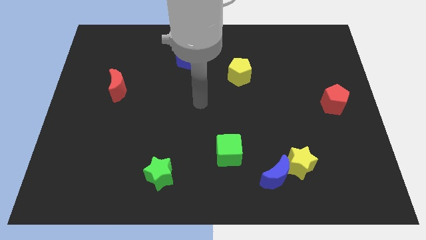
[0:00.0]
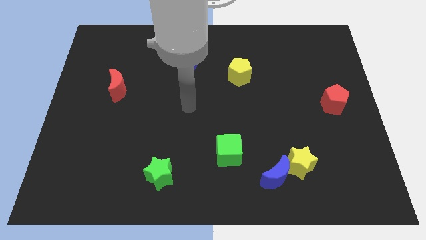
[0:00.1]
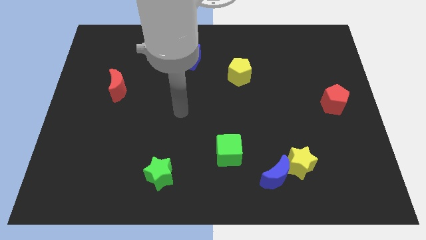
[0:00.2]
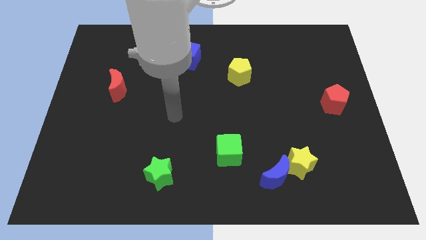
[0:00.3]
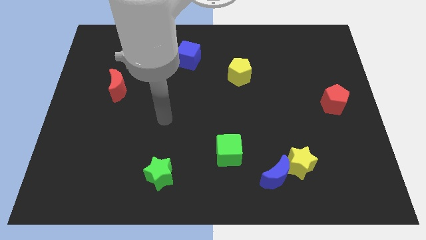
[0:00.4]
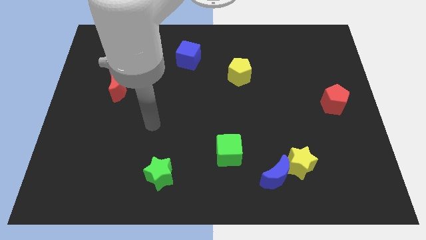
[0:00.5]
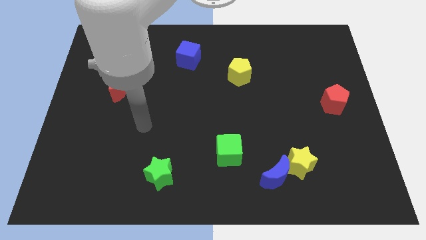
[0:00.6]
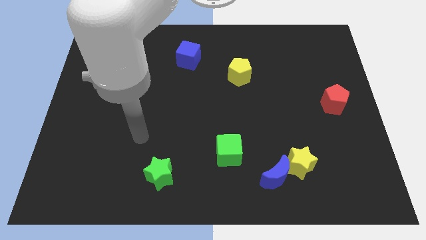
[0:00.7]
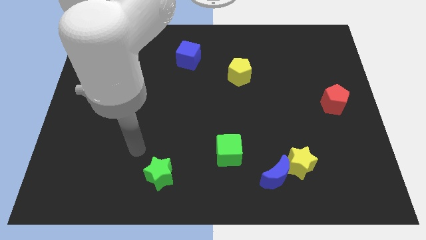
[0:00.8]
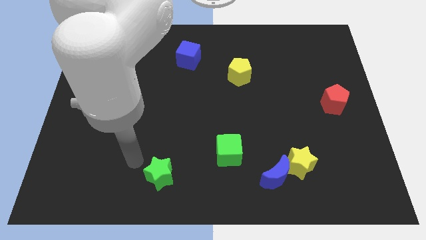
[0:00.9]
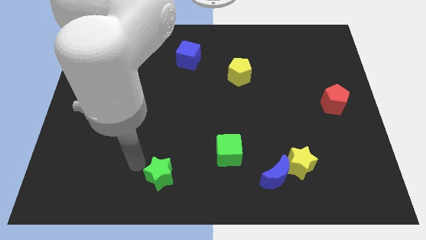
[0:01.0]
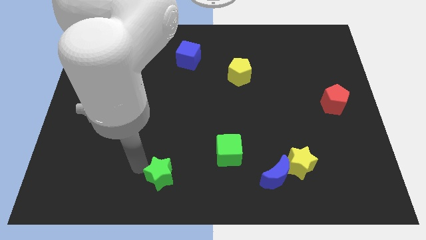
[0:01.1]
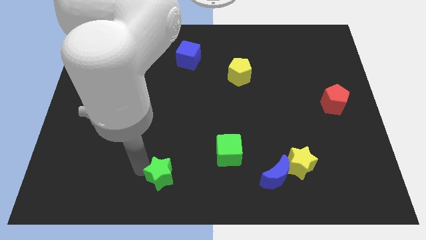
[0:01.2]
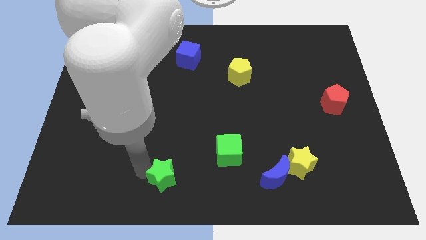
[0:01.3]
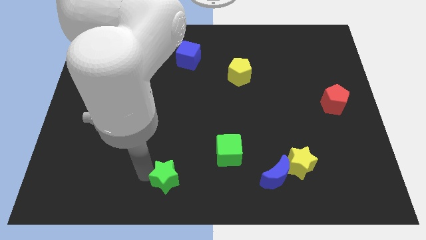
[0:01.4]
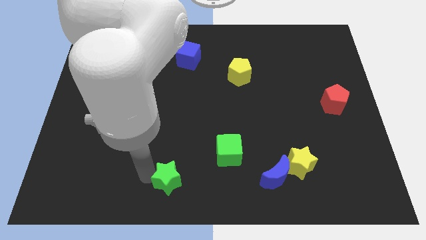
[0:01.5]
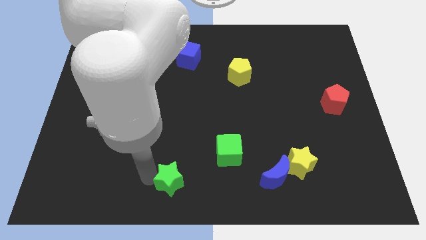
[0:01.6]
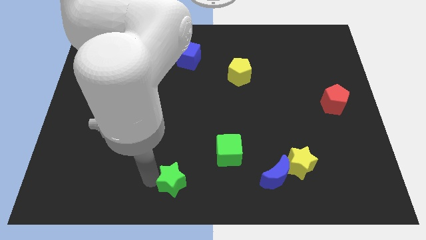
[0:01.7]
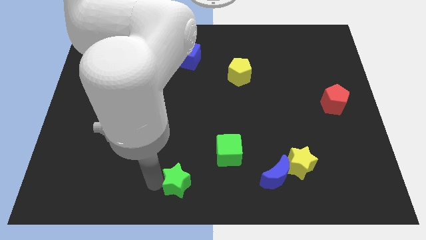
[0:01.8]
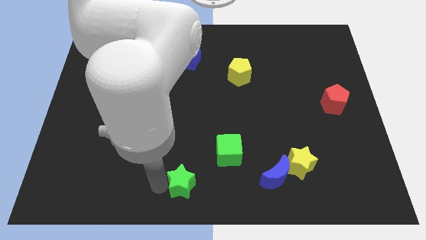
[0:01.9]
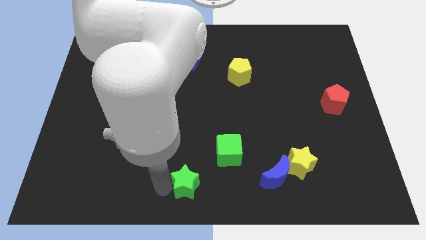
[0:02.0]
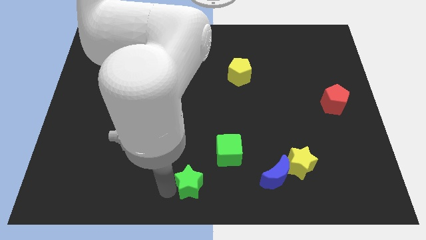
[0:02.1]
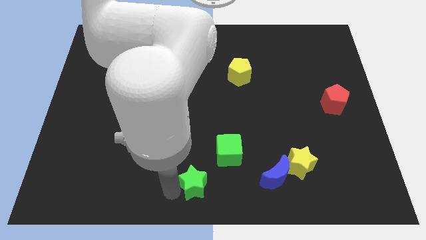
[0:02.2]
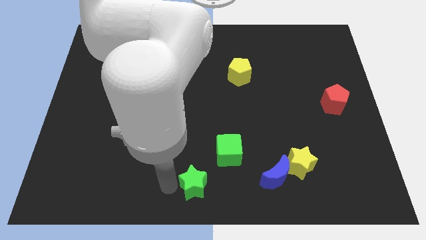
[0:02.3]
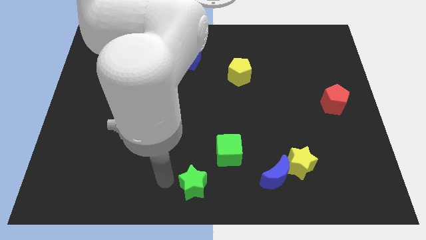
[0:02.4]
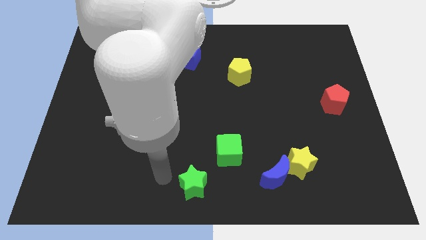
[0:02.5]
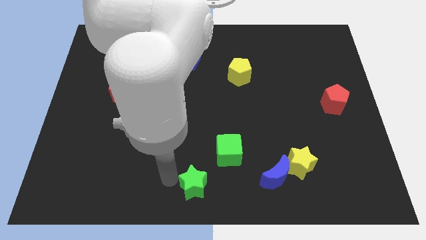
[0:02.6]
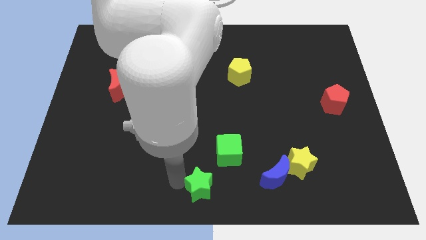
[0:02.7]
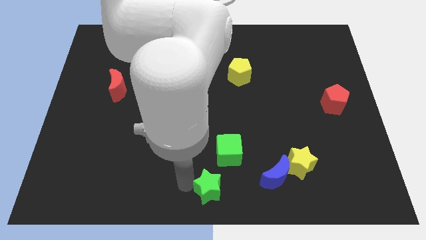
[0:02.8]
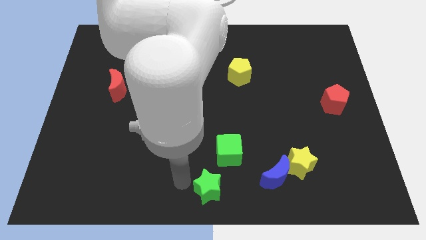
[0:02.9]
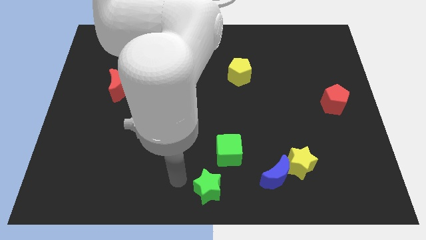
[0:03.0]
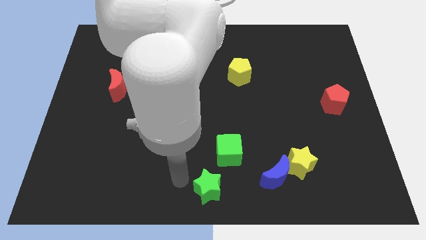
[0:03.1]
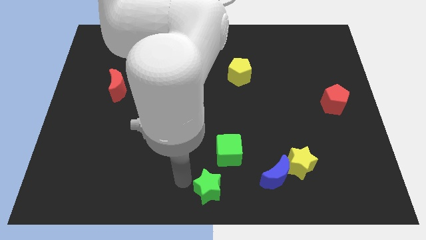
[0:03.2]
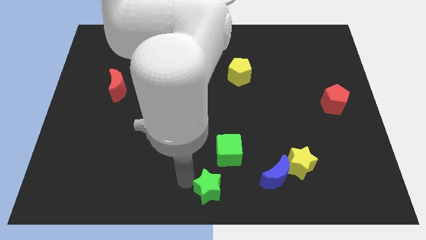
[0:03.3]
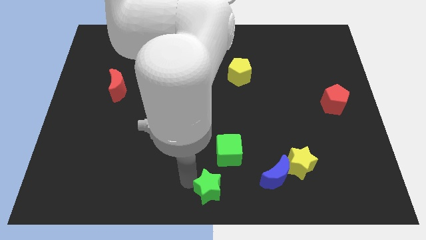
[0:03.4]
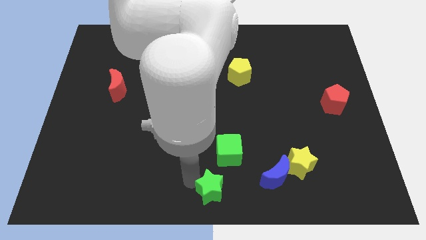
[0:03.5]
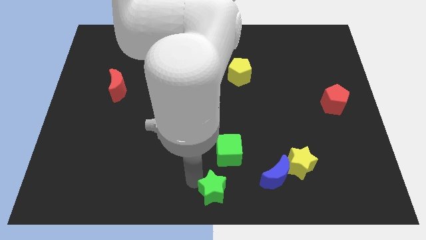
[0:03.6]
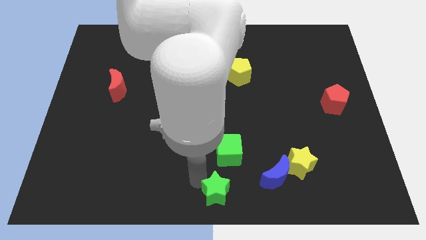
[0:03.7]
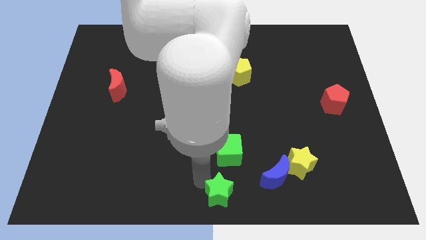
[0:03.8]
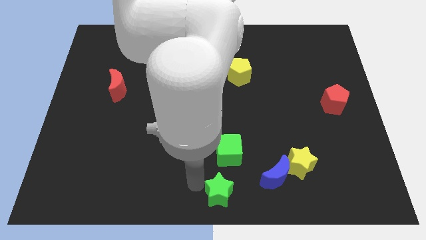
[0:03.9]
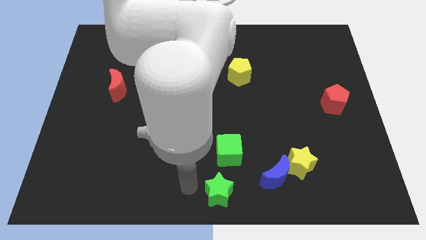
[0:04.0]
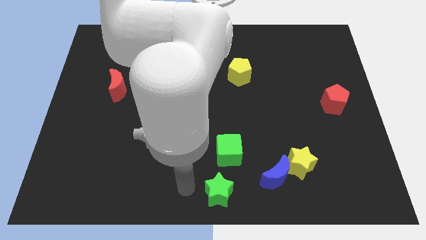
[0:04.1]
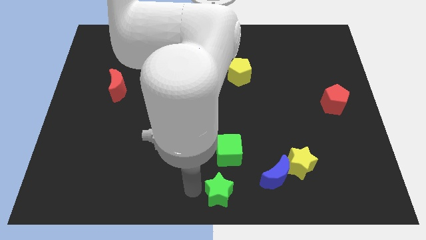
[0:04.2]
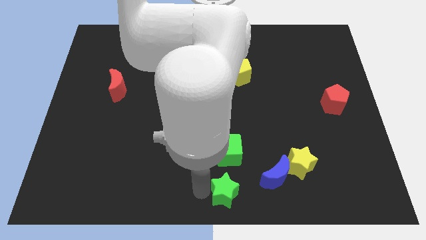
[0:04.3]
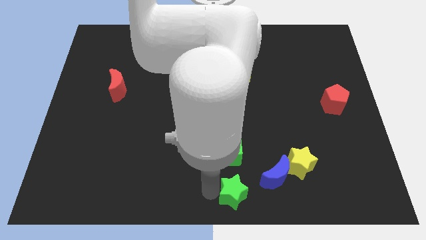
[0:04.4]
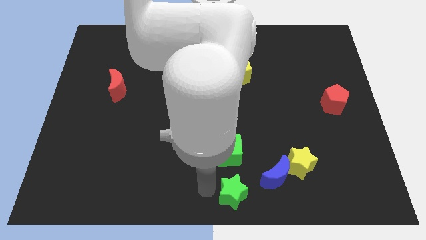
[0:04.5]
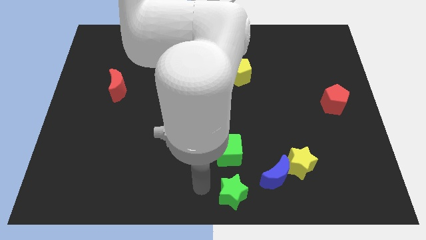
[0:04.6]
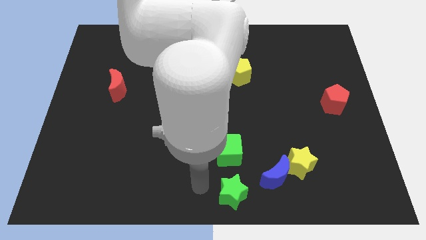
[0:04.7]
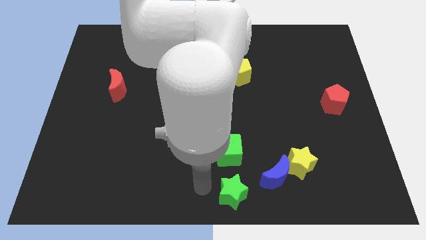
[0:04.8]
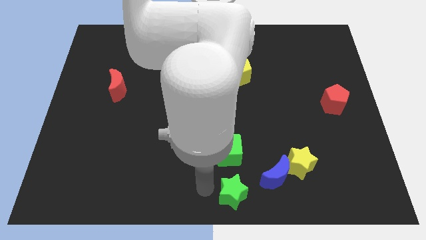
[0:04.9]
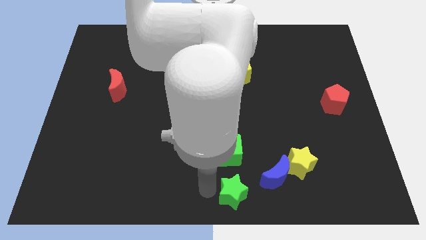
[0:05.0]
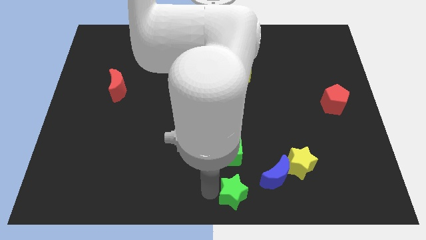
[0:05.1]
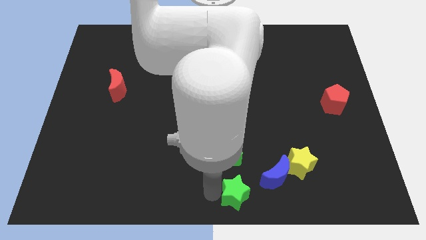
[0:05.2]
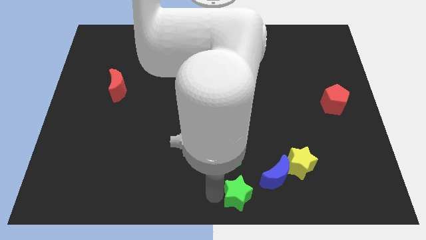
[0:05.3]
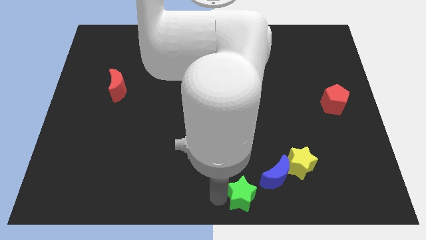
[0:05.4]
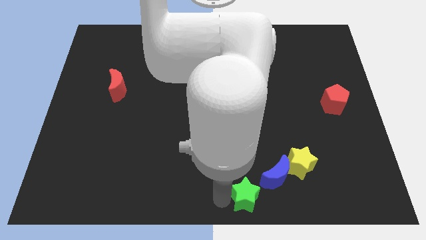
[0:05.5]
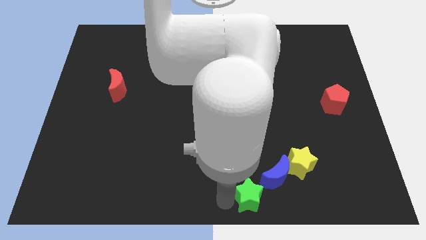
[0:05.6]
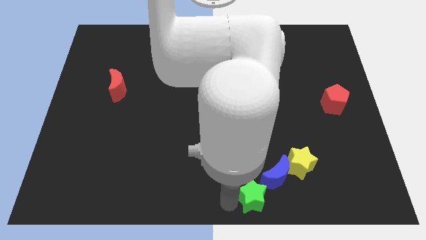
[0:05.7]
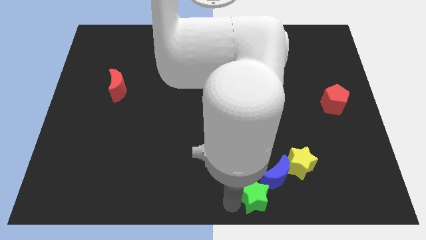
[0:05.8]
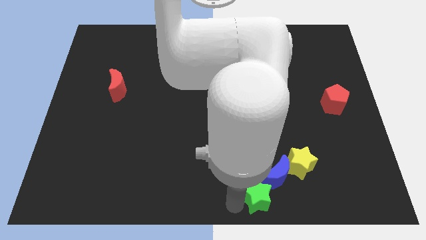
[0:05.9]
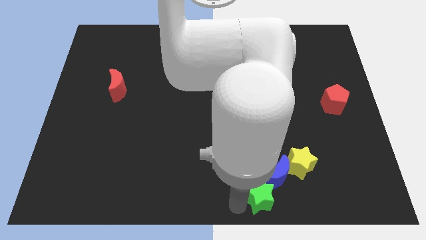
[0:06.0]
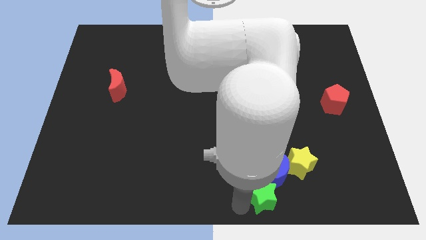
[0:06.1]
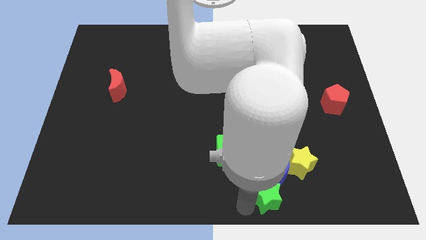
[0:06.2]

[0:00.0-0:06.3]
slide the green star to the right

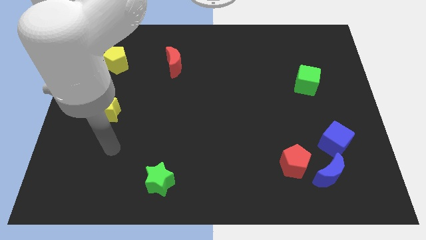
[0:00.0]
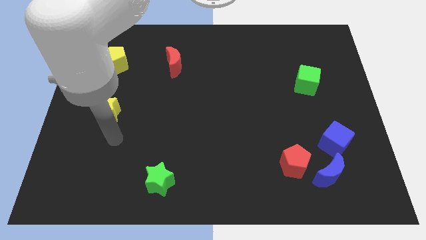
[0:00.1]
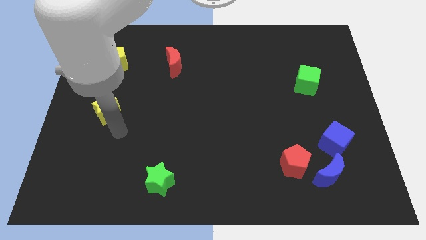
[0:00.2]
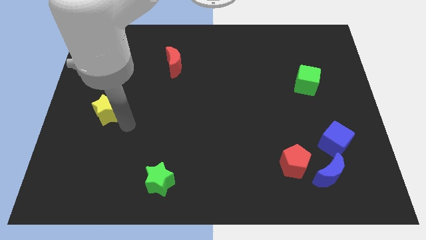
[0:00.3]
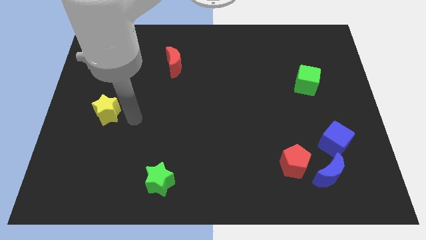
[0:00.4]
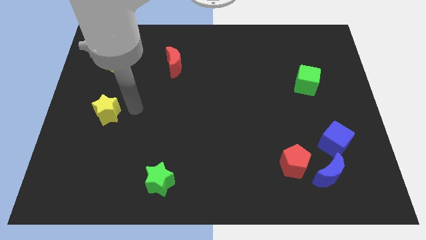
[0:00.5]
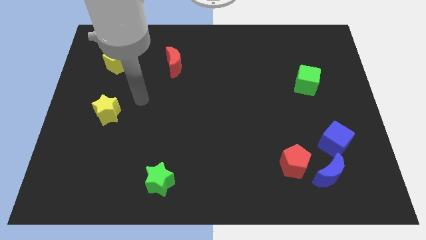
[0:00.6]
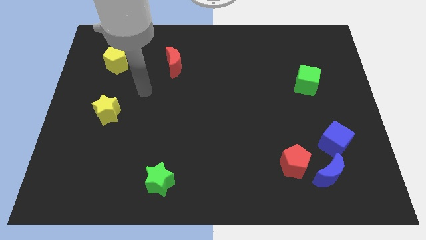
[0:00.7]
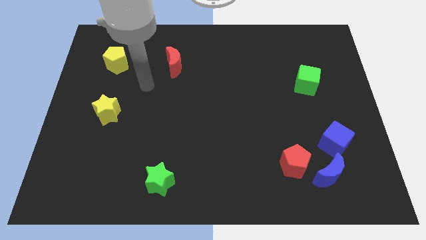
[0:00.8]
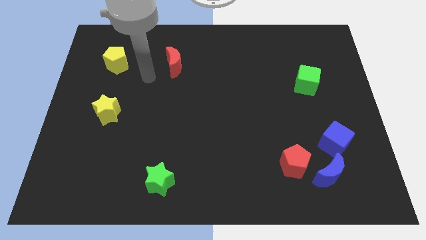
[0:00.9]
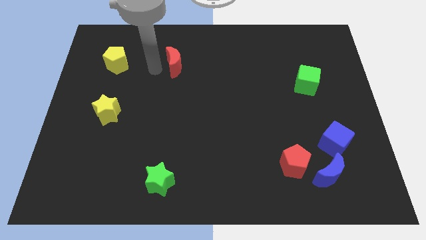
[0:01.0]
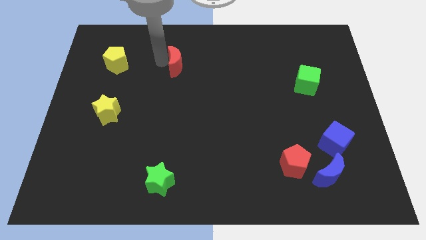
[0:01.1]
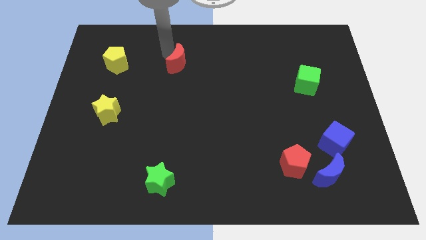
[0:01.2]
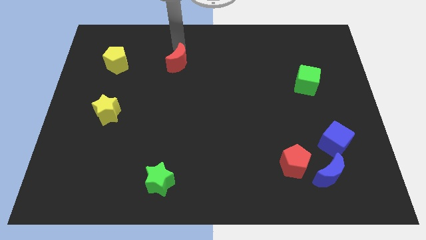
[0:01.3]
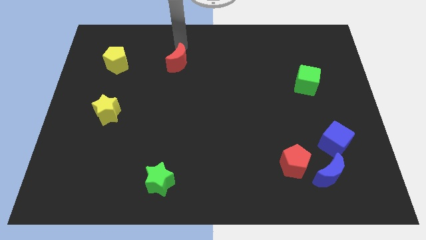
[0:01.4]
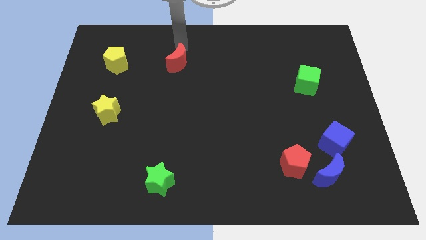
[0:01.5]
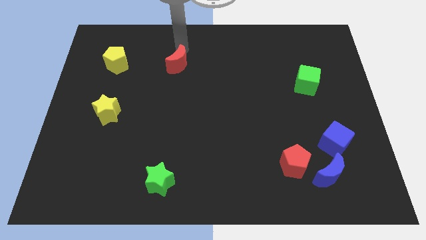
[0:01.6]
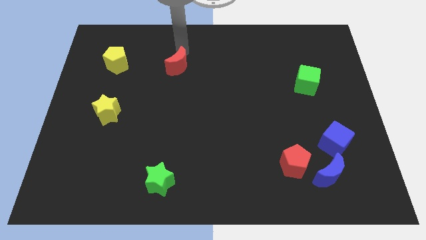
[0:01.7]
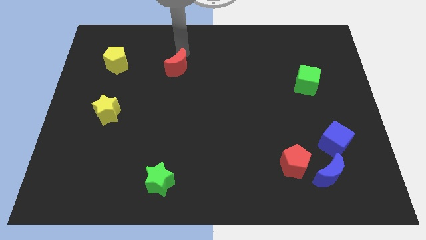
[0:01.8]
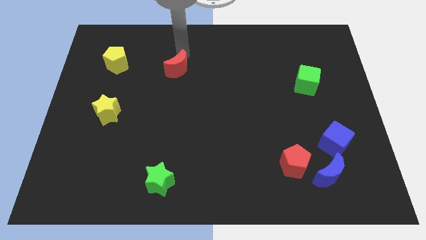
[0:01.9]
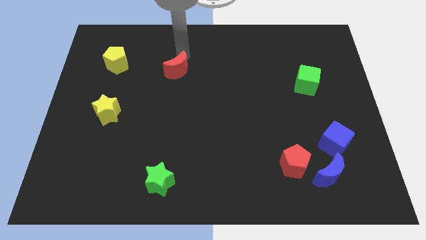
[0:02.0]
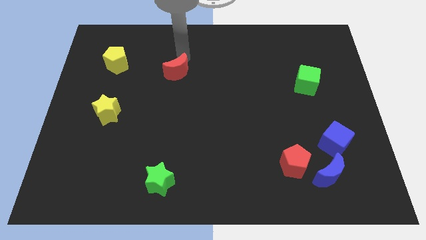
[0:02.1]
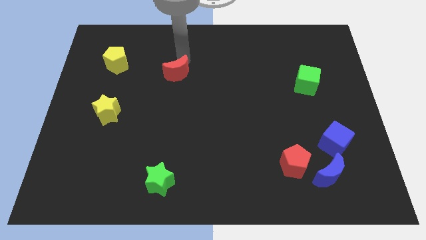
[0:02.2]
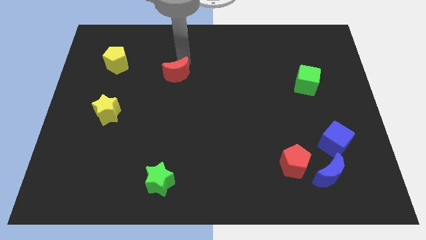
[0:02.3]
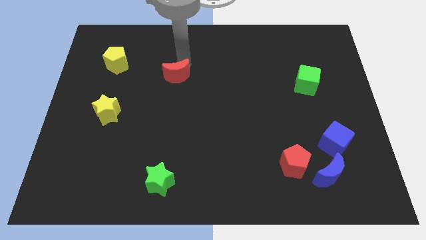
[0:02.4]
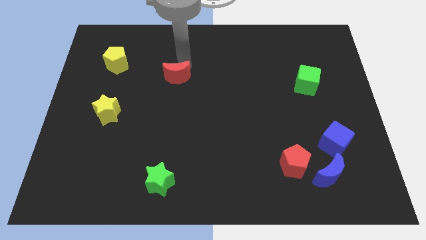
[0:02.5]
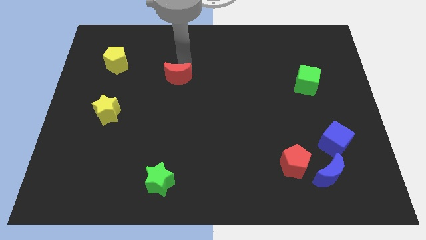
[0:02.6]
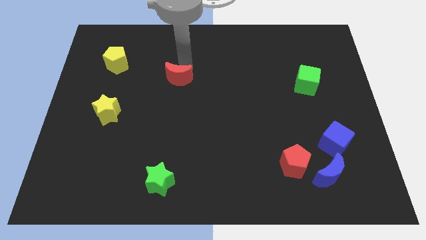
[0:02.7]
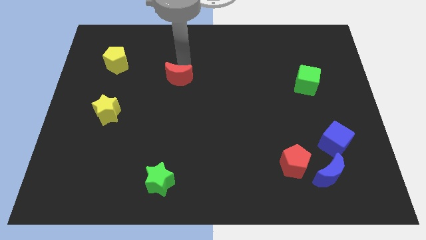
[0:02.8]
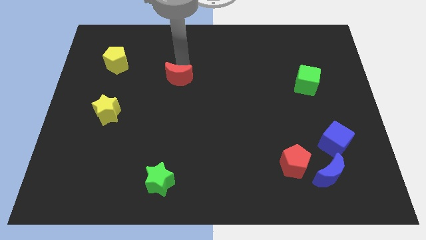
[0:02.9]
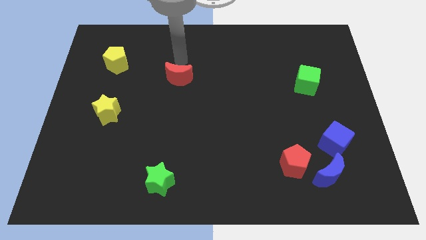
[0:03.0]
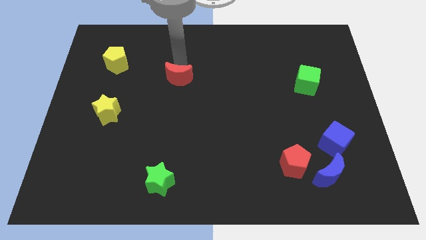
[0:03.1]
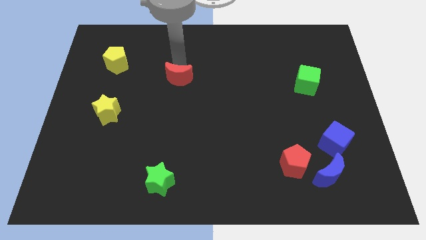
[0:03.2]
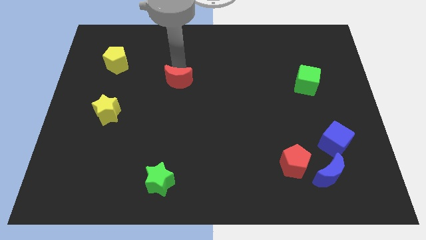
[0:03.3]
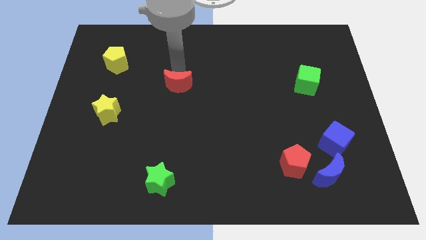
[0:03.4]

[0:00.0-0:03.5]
move the red moon a bit down
